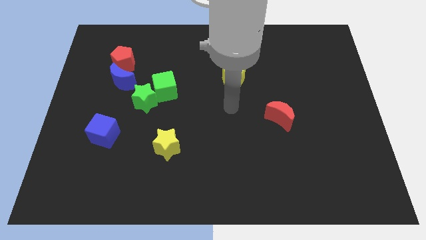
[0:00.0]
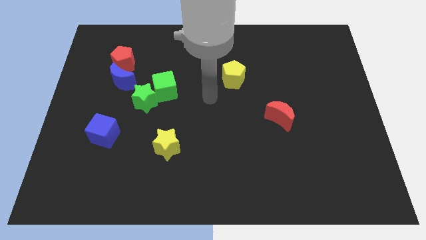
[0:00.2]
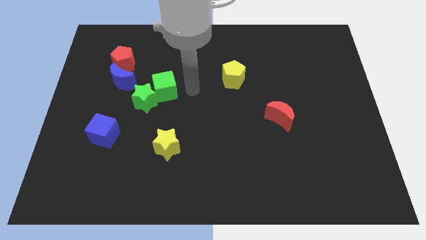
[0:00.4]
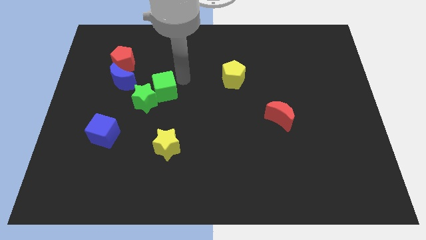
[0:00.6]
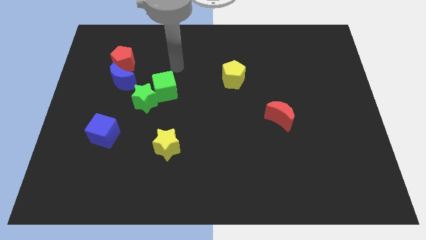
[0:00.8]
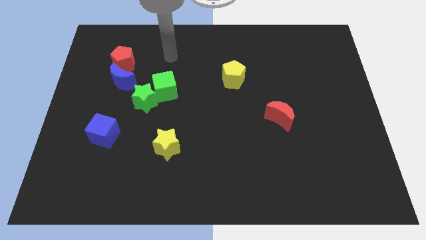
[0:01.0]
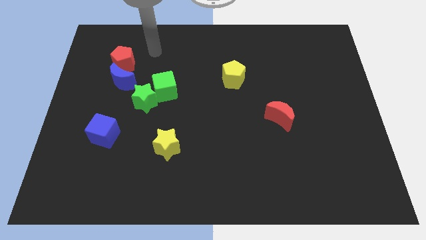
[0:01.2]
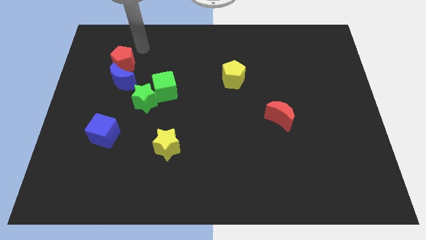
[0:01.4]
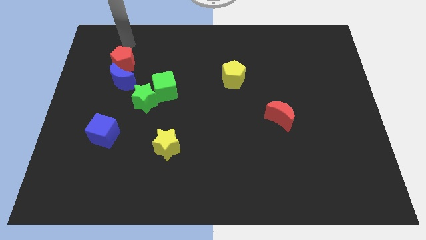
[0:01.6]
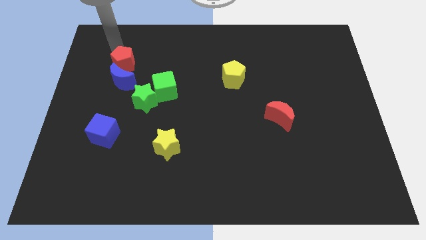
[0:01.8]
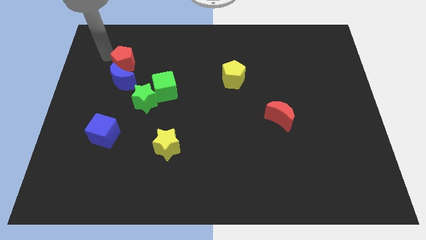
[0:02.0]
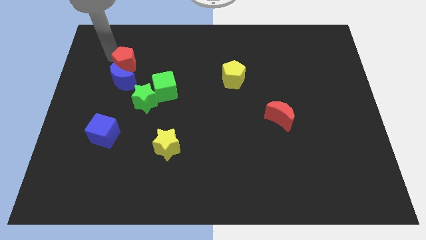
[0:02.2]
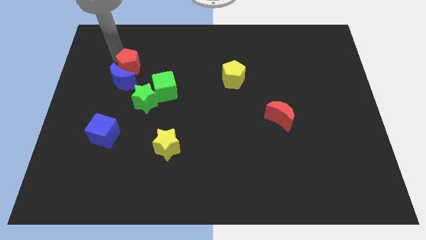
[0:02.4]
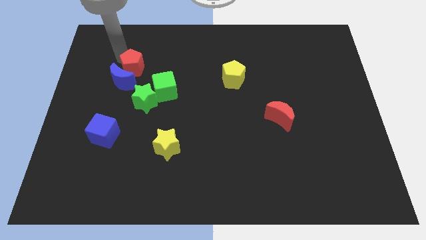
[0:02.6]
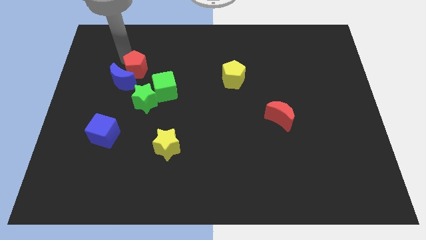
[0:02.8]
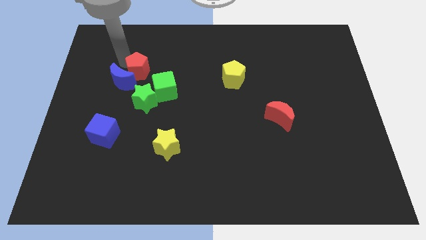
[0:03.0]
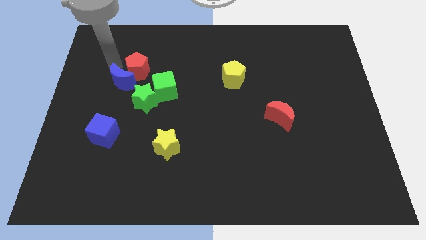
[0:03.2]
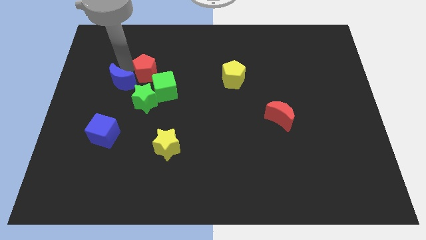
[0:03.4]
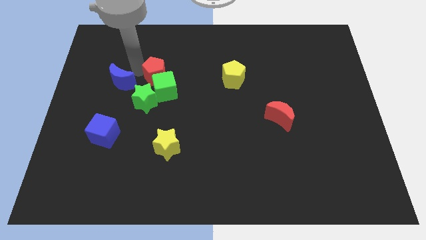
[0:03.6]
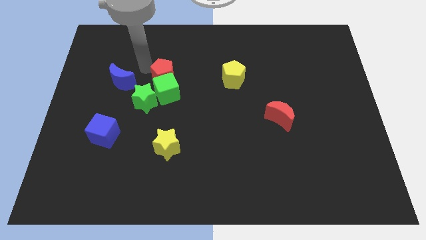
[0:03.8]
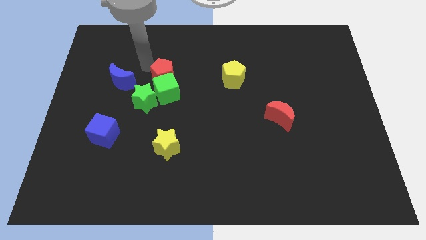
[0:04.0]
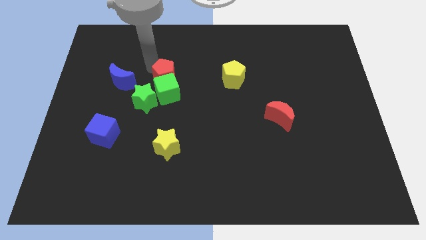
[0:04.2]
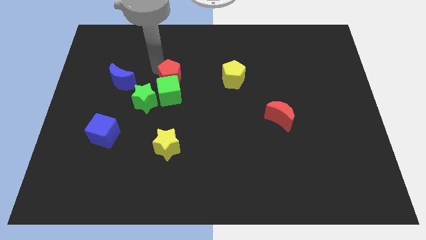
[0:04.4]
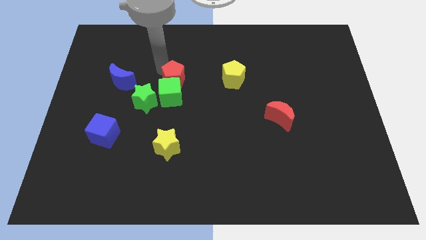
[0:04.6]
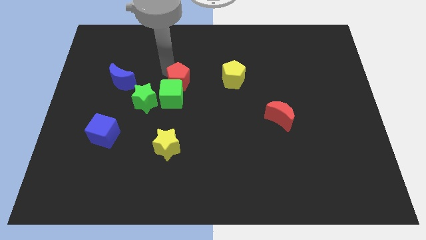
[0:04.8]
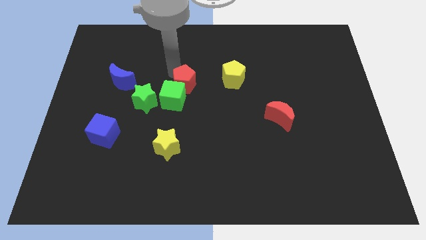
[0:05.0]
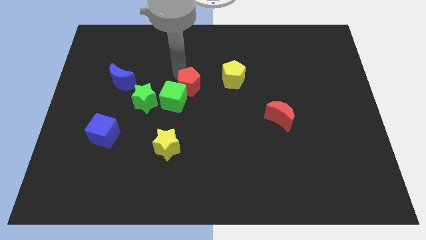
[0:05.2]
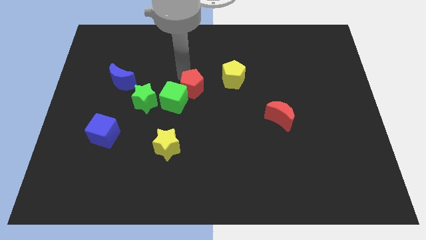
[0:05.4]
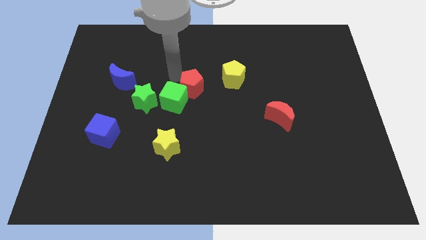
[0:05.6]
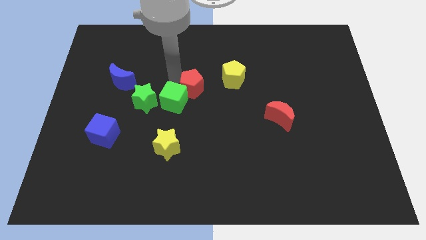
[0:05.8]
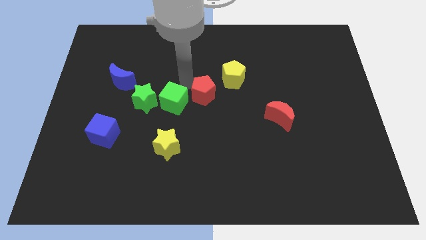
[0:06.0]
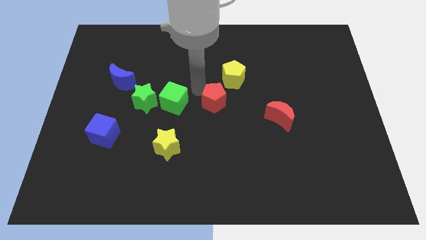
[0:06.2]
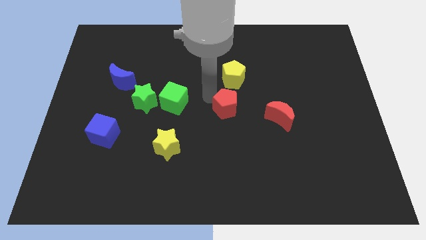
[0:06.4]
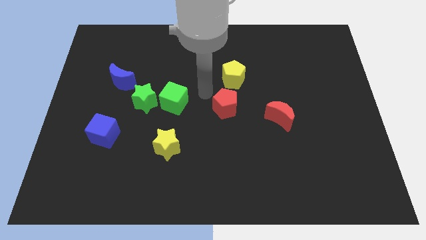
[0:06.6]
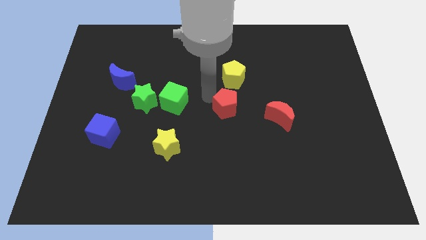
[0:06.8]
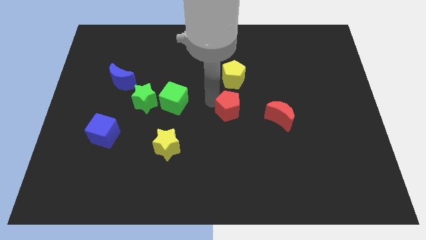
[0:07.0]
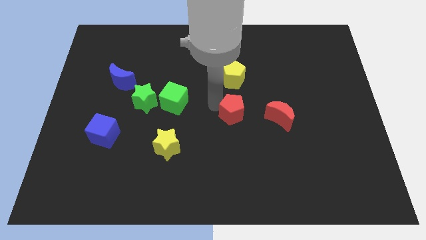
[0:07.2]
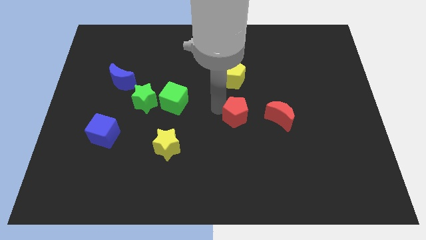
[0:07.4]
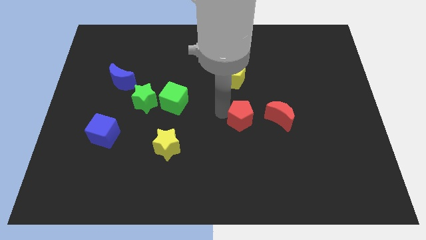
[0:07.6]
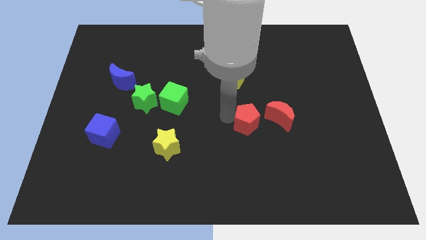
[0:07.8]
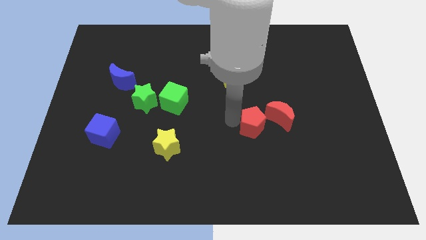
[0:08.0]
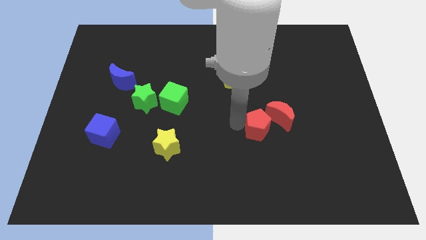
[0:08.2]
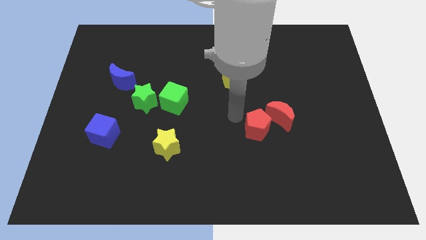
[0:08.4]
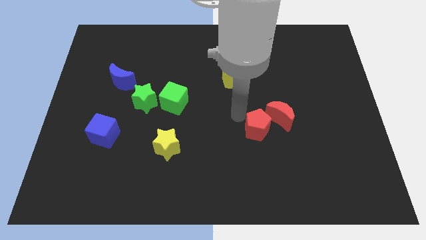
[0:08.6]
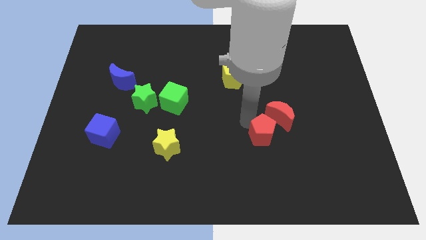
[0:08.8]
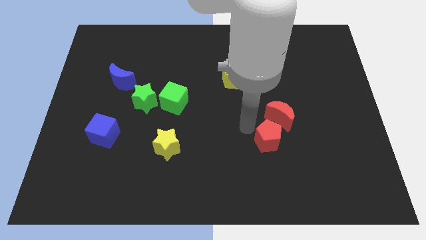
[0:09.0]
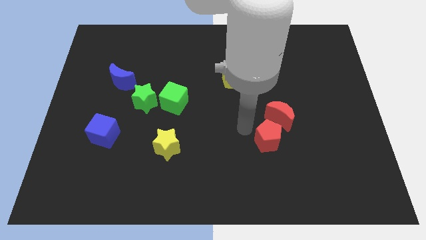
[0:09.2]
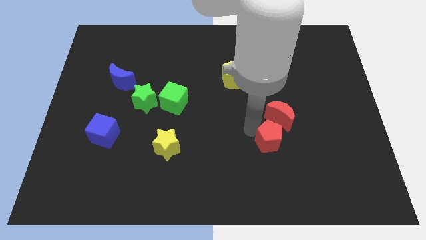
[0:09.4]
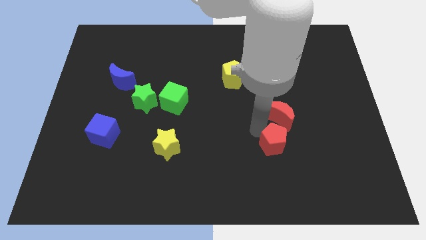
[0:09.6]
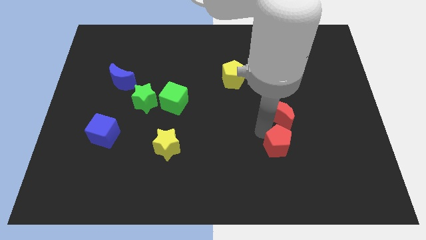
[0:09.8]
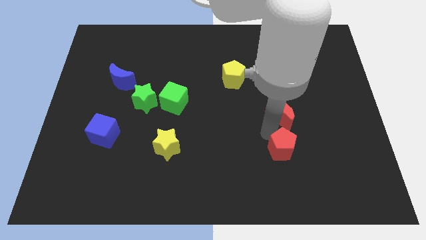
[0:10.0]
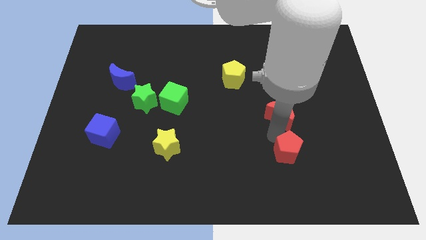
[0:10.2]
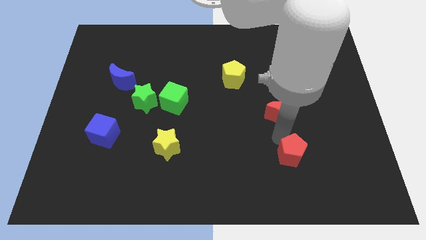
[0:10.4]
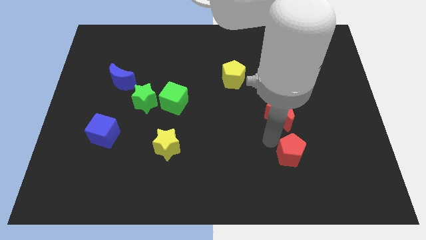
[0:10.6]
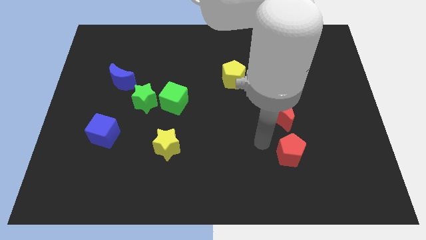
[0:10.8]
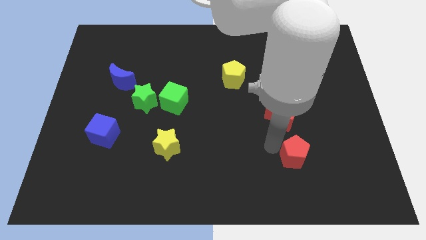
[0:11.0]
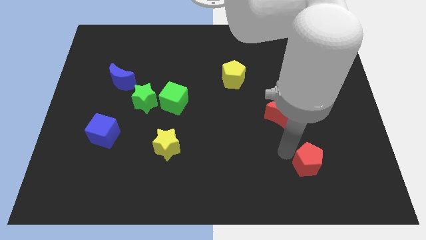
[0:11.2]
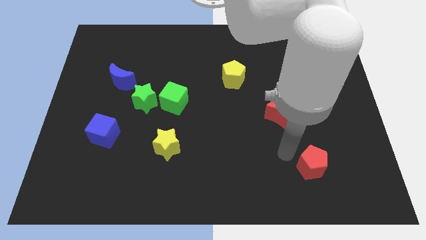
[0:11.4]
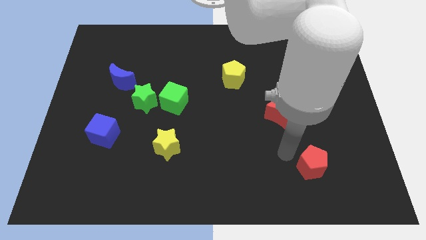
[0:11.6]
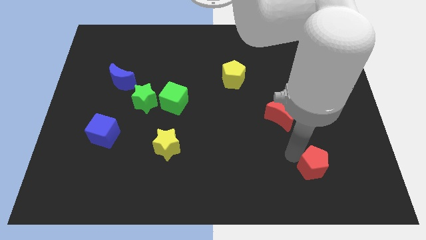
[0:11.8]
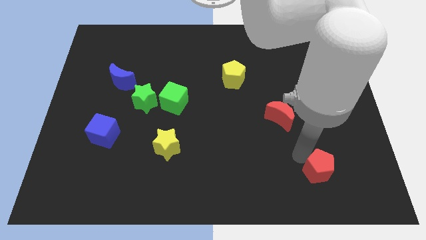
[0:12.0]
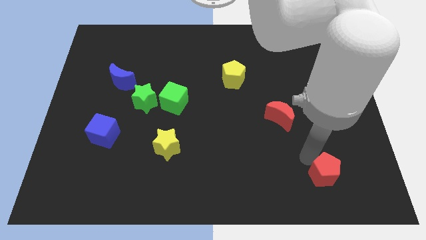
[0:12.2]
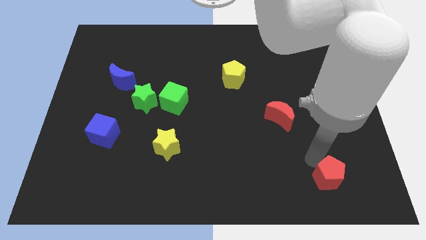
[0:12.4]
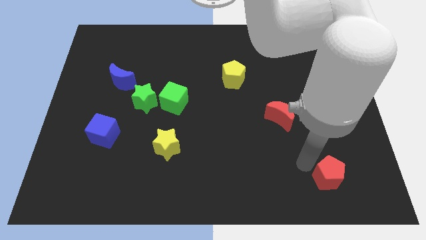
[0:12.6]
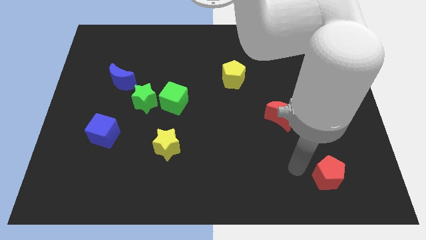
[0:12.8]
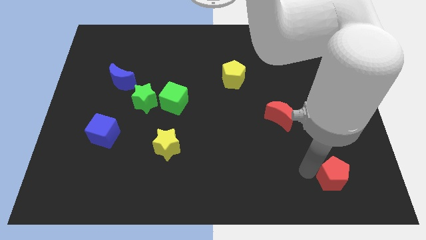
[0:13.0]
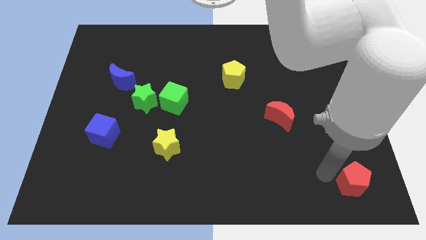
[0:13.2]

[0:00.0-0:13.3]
push the red pentagon to the bottom right of the board
